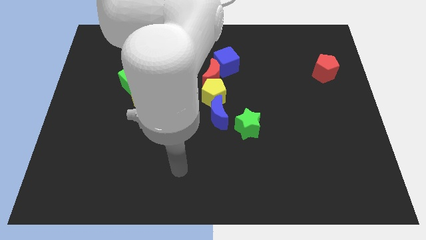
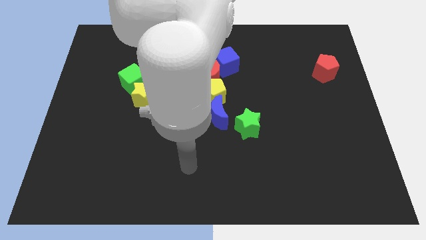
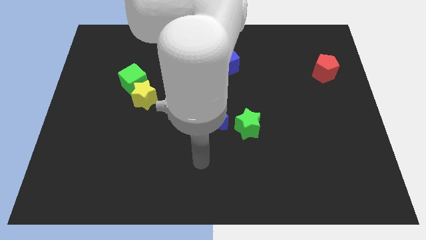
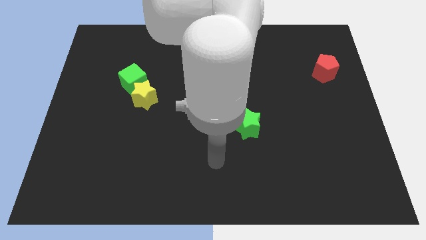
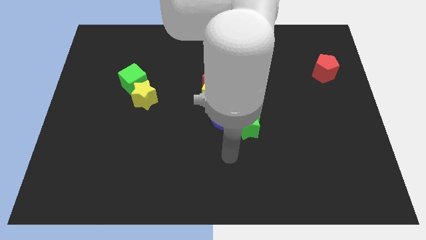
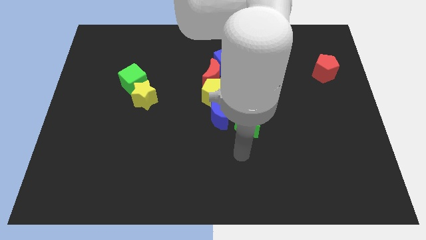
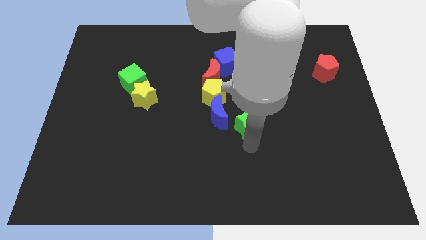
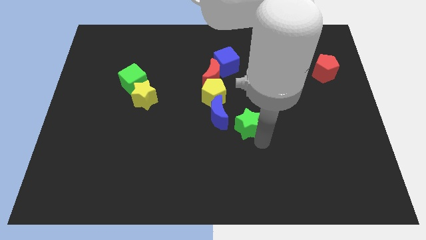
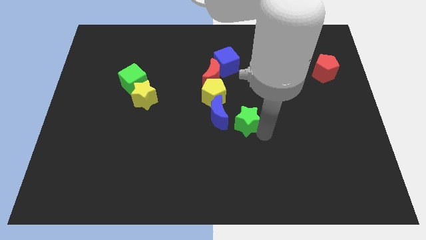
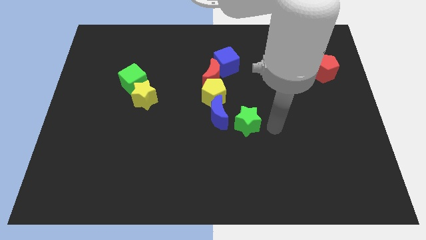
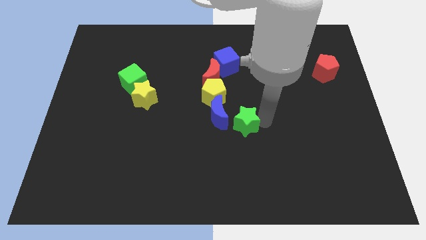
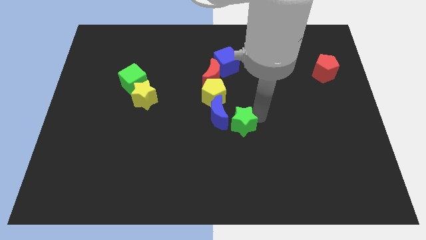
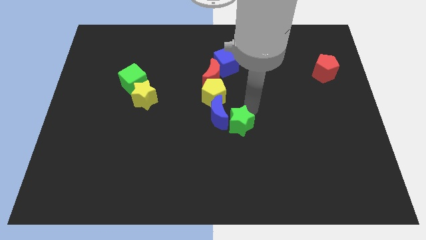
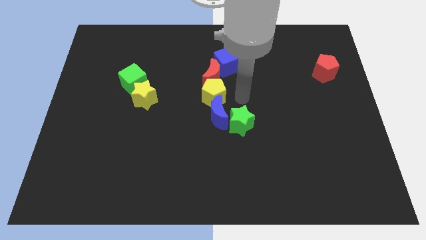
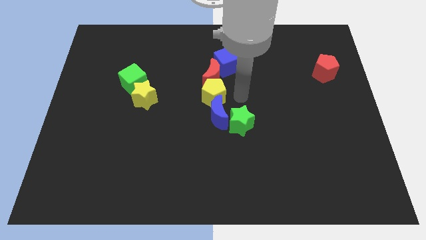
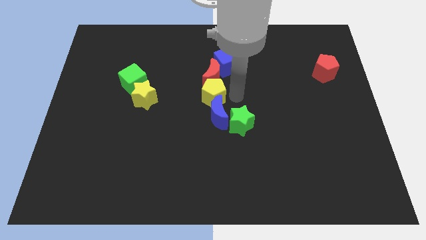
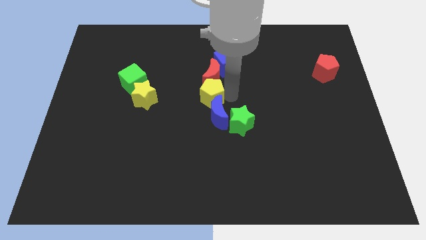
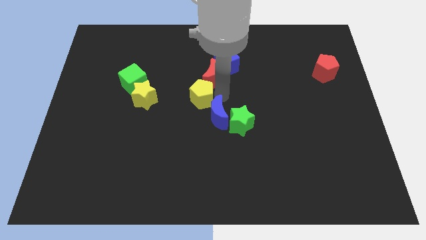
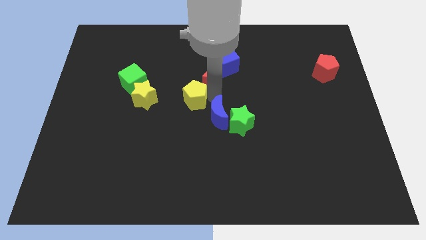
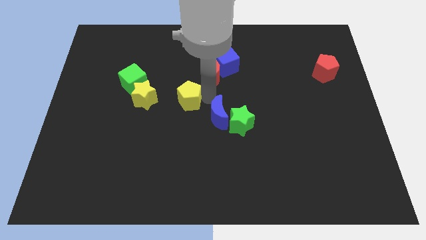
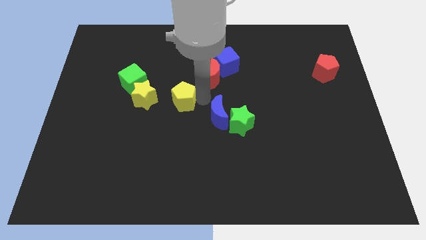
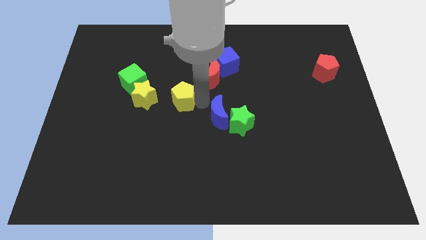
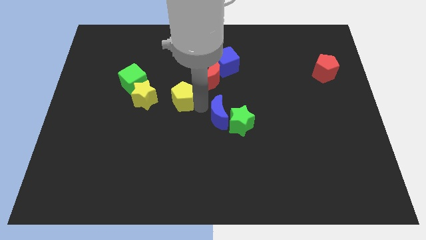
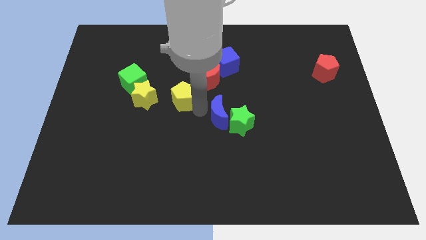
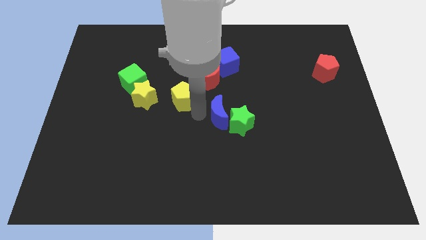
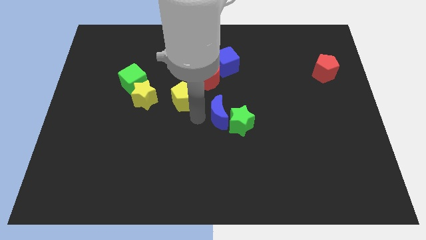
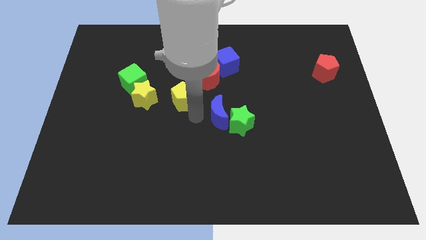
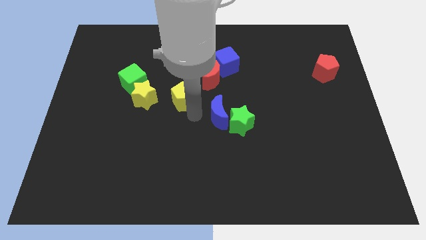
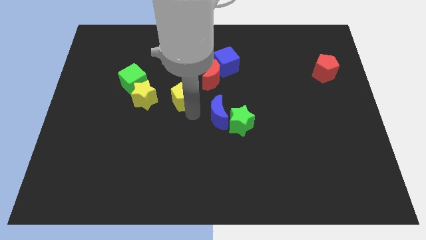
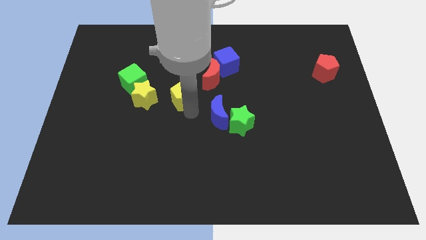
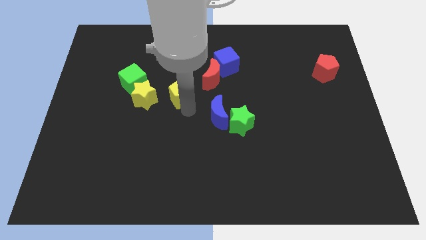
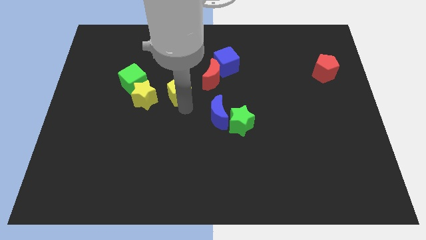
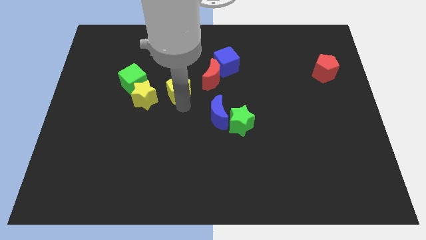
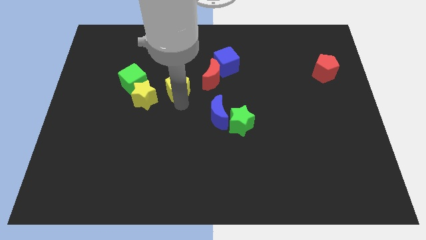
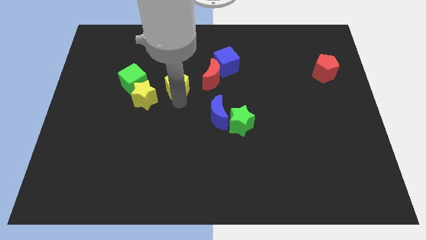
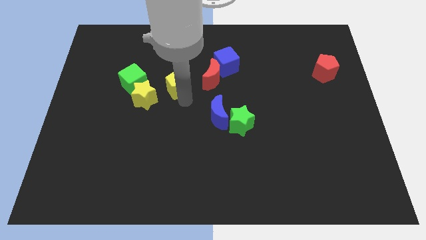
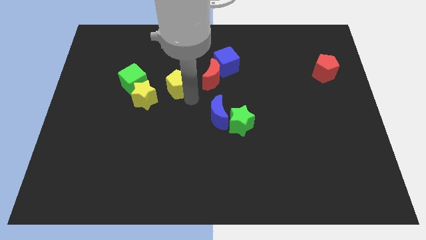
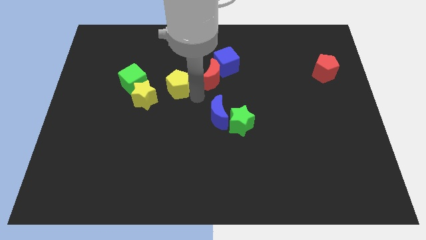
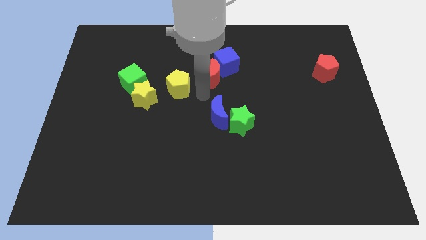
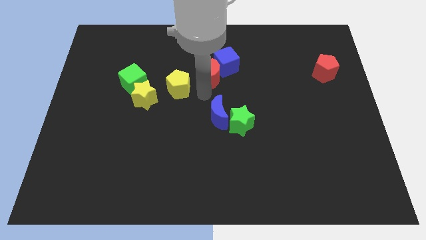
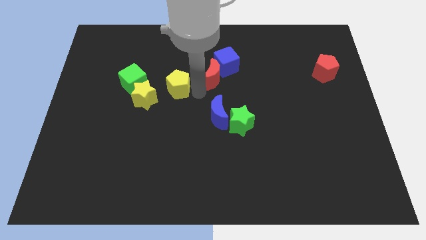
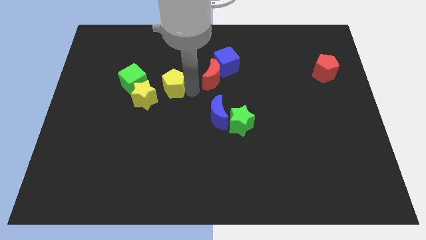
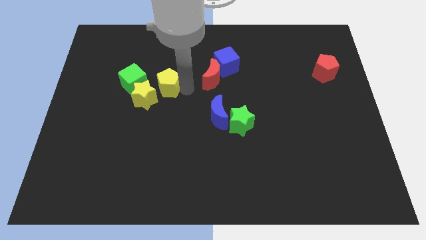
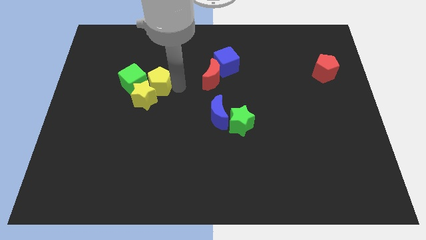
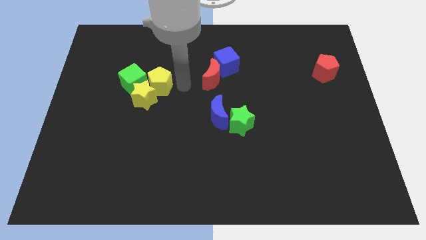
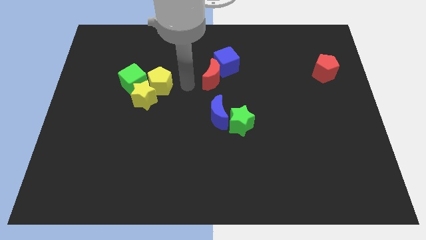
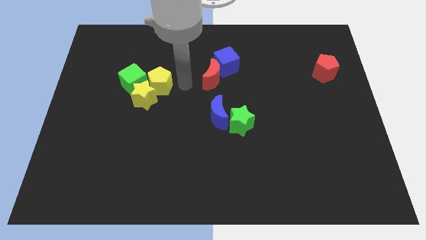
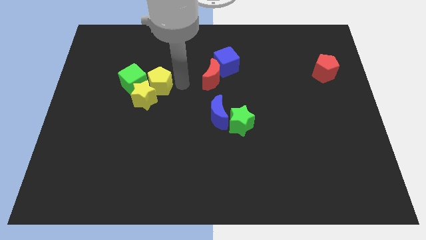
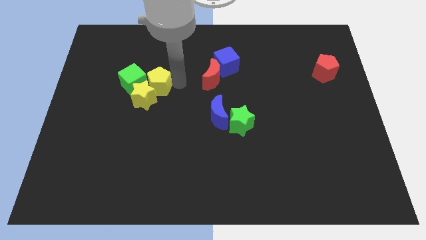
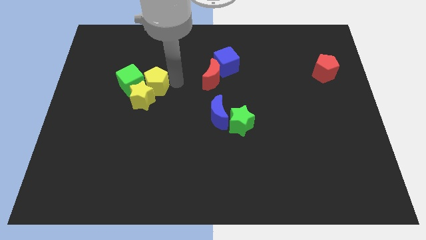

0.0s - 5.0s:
move the yellow pentagon towards the green cube

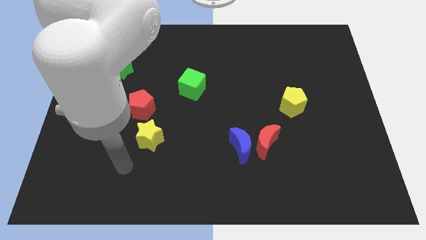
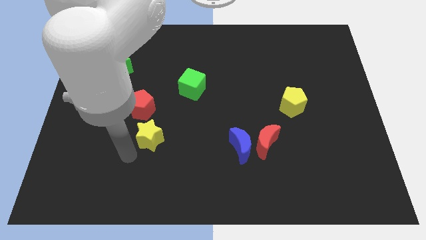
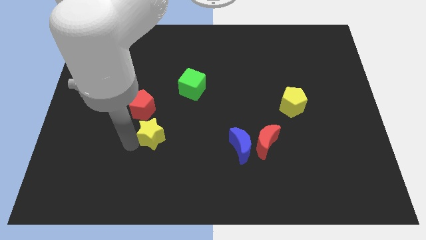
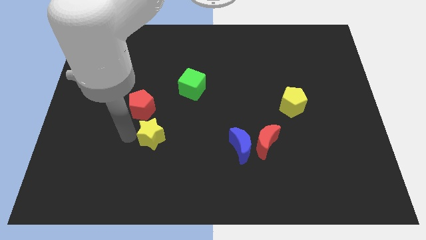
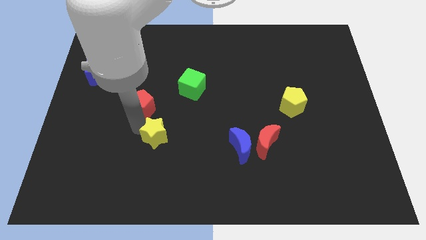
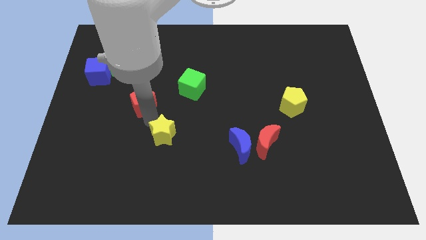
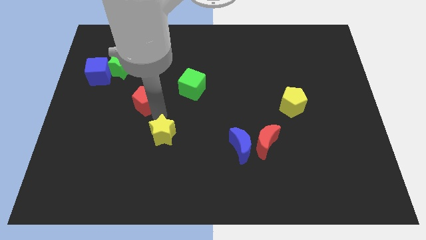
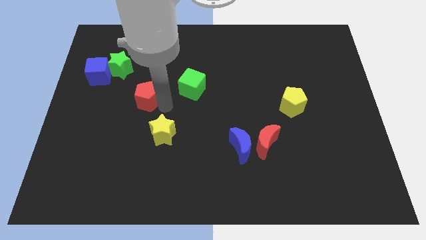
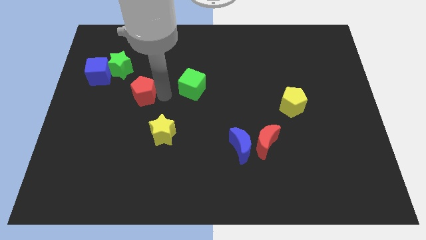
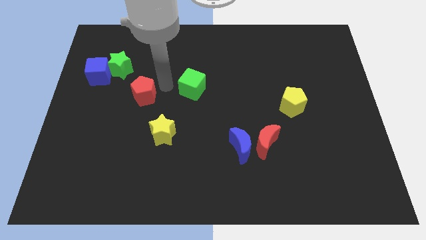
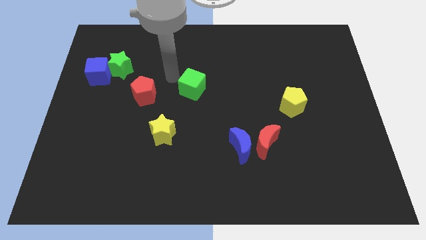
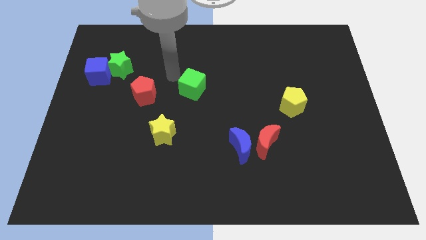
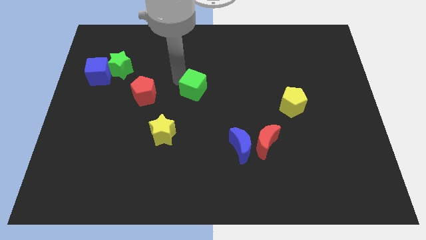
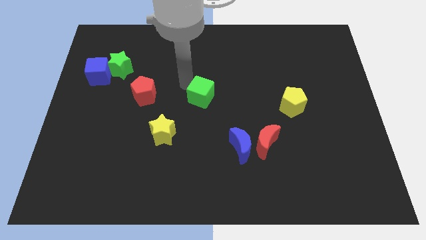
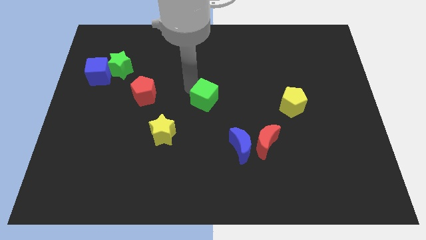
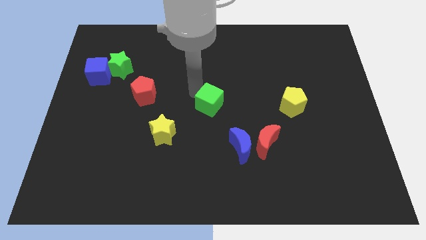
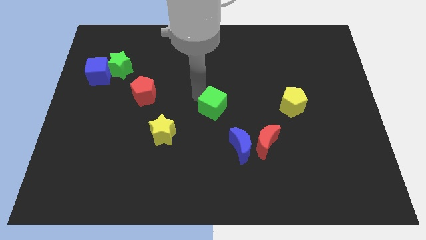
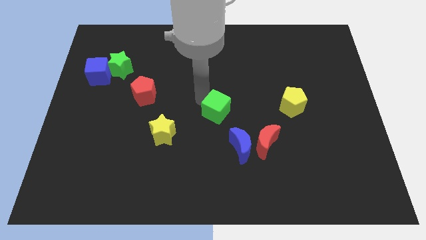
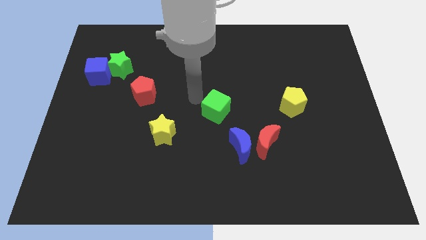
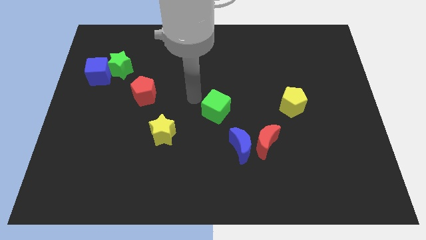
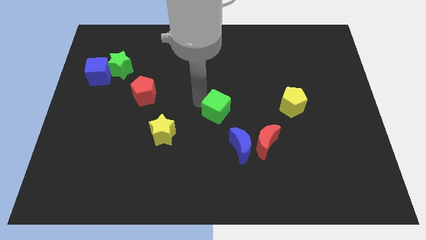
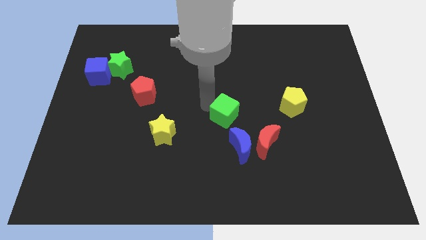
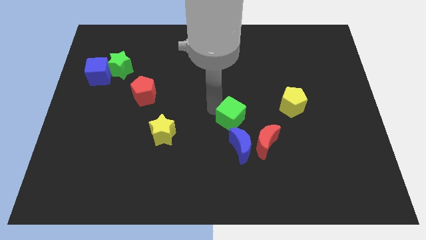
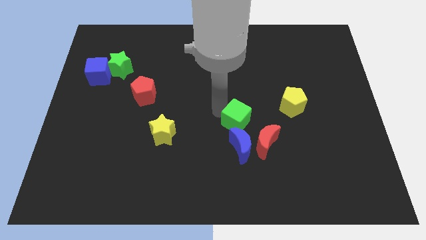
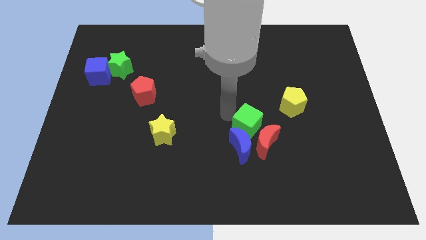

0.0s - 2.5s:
move the green cube towards the red moon
